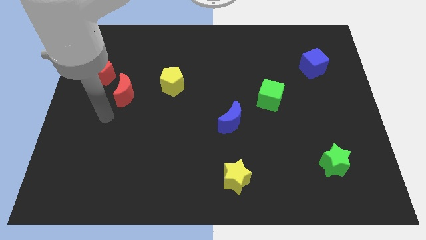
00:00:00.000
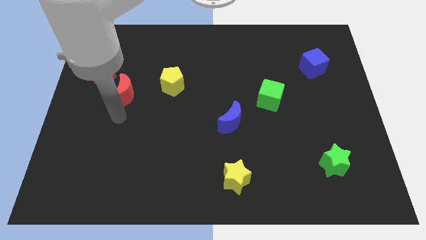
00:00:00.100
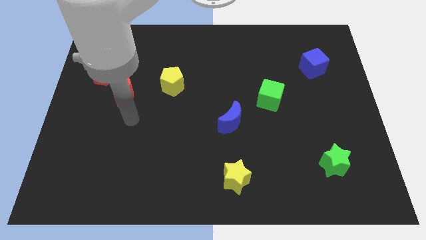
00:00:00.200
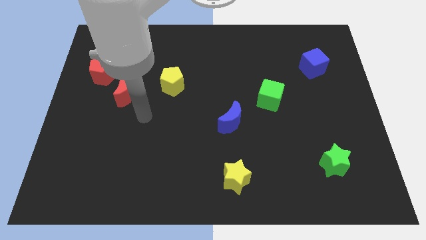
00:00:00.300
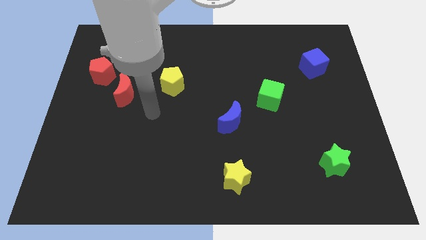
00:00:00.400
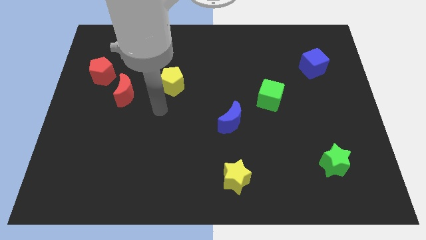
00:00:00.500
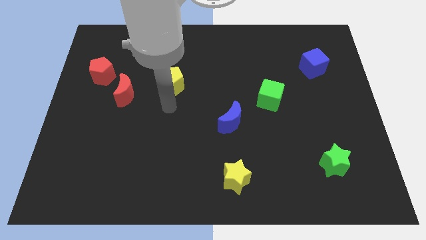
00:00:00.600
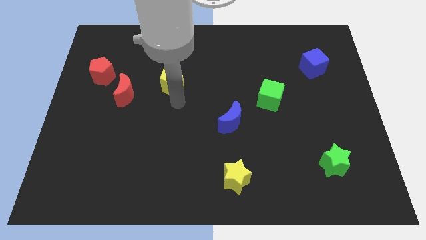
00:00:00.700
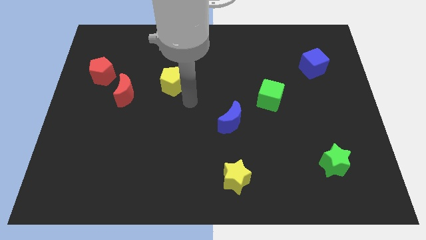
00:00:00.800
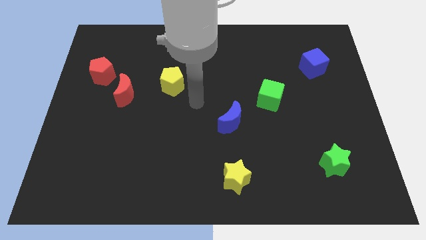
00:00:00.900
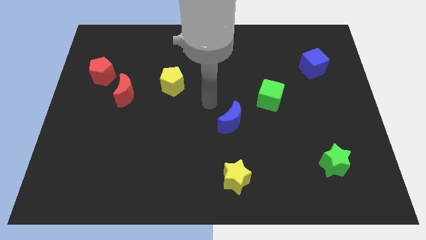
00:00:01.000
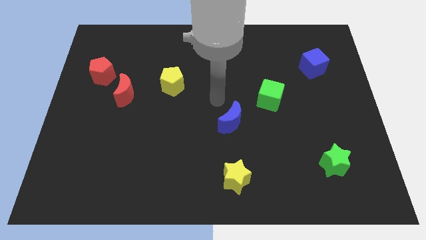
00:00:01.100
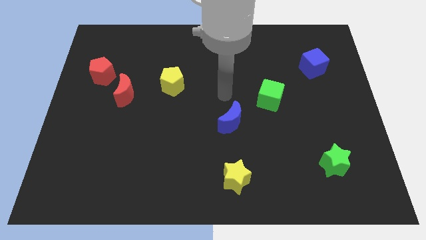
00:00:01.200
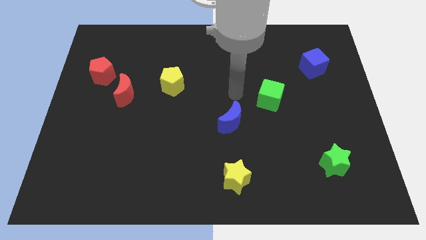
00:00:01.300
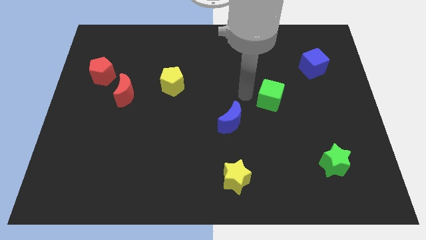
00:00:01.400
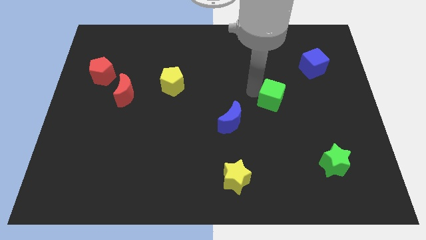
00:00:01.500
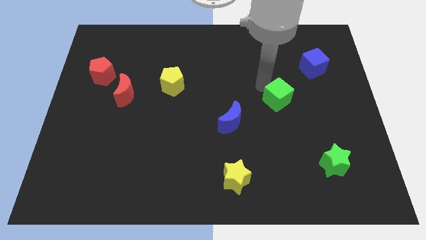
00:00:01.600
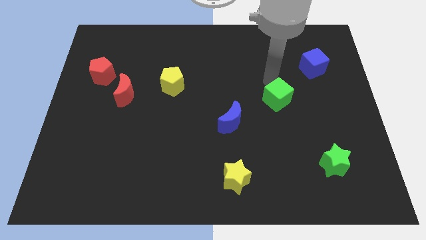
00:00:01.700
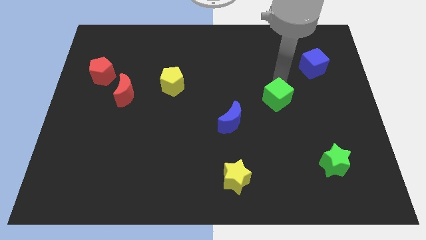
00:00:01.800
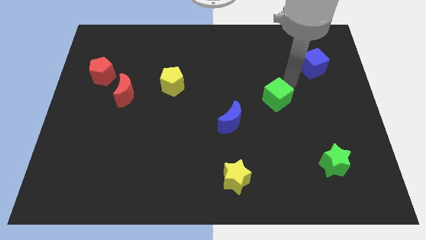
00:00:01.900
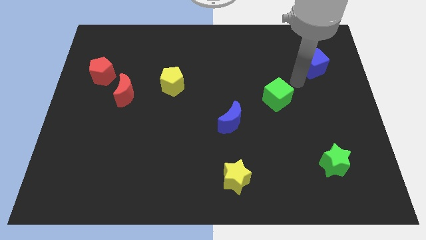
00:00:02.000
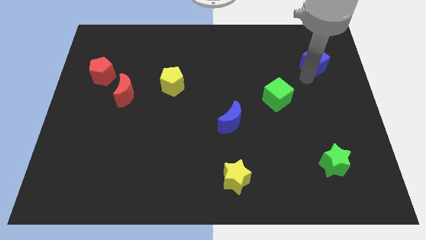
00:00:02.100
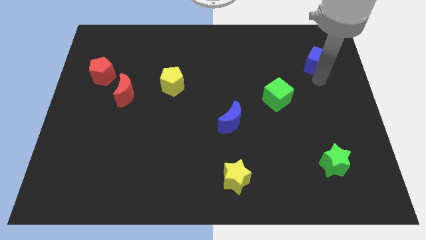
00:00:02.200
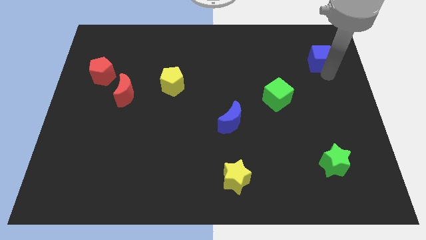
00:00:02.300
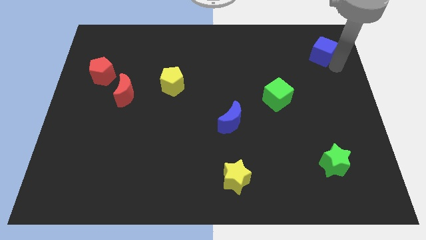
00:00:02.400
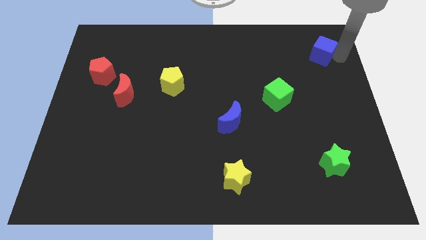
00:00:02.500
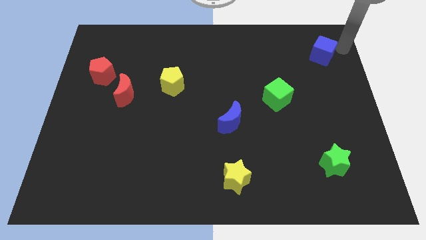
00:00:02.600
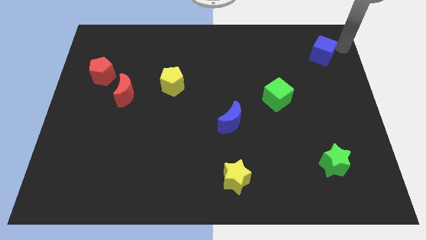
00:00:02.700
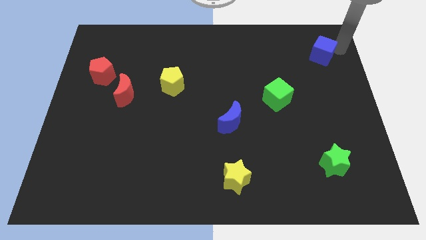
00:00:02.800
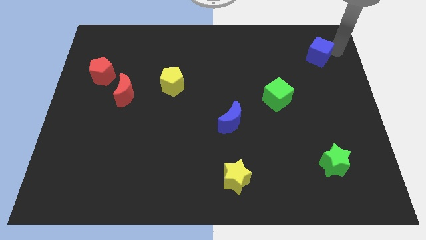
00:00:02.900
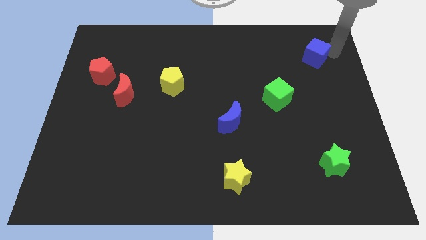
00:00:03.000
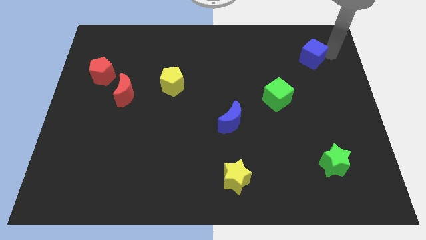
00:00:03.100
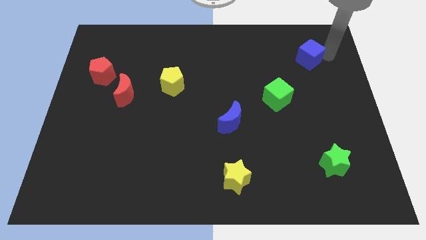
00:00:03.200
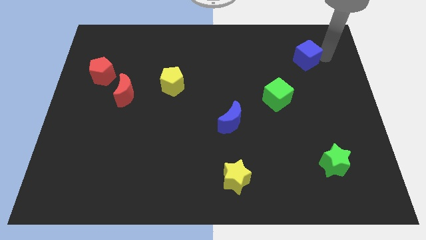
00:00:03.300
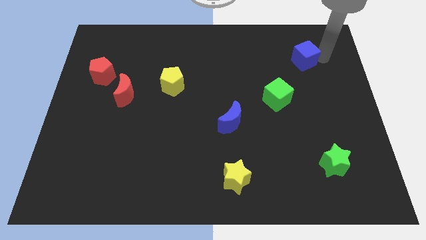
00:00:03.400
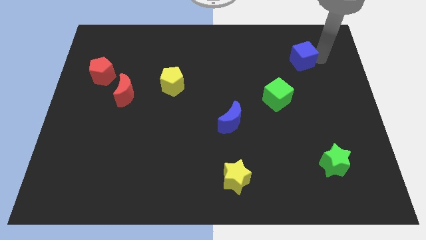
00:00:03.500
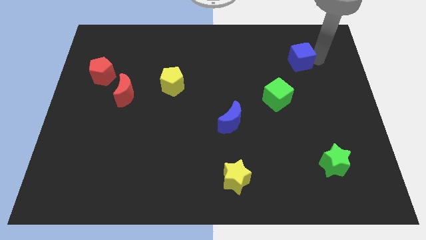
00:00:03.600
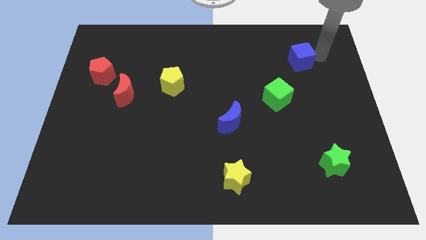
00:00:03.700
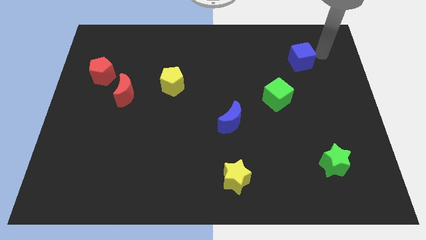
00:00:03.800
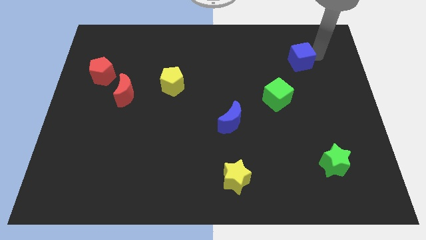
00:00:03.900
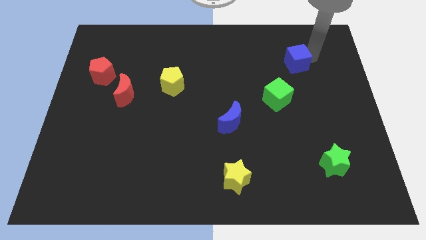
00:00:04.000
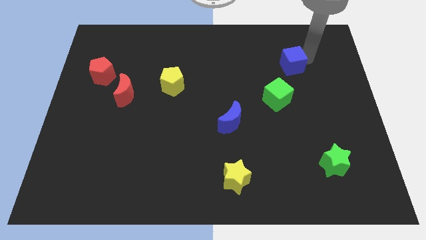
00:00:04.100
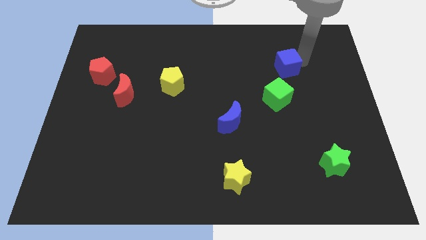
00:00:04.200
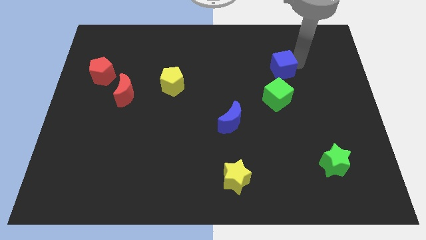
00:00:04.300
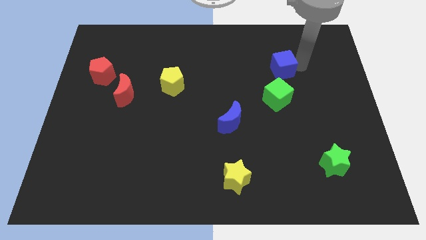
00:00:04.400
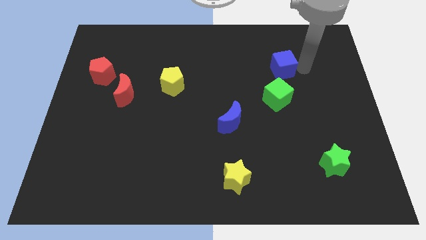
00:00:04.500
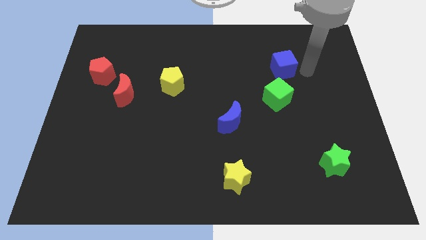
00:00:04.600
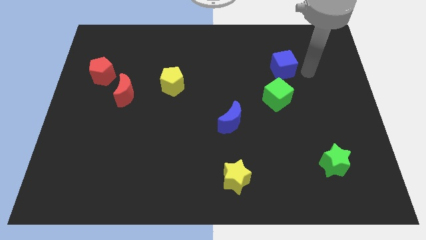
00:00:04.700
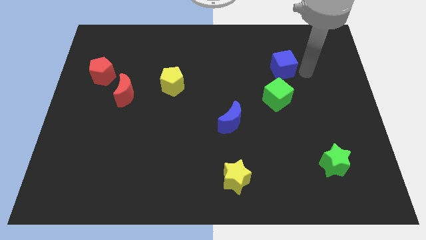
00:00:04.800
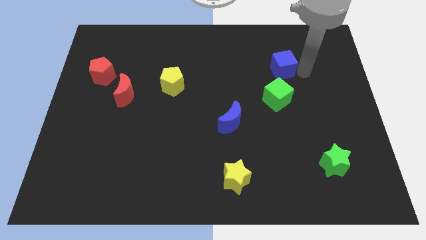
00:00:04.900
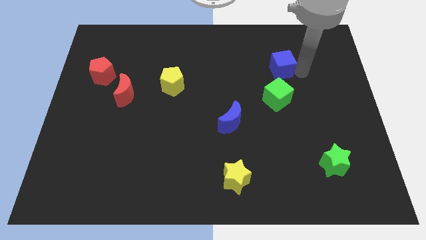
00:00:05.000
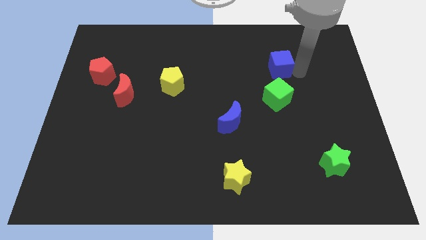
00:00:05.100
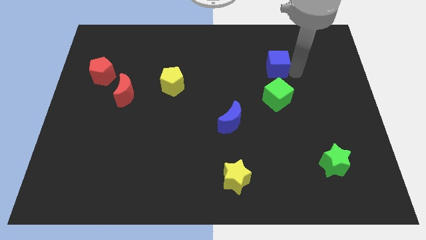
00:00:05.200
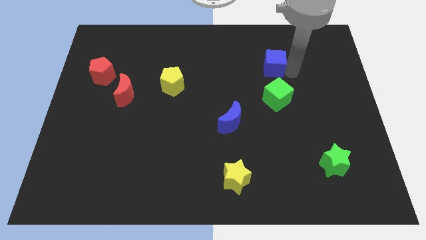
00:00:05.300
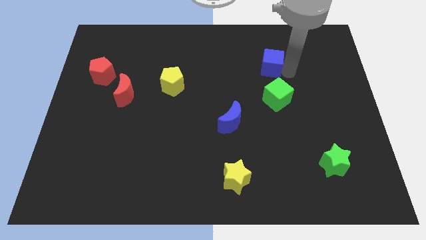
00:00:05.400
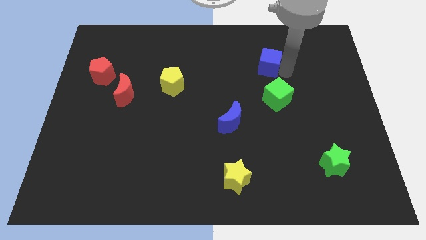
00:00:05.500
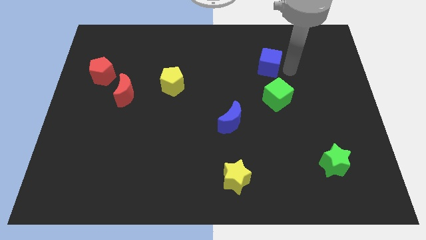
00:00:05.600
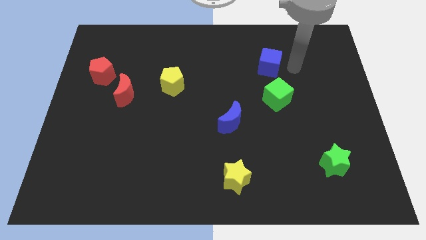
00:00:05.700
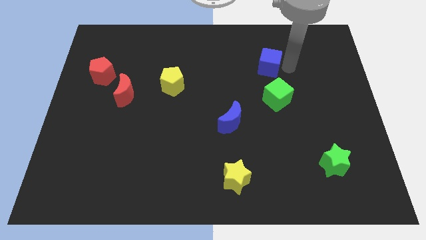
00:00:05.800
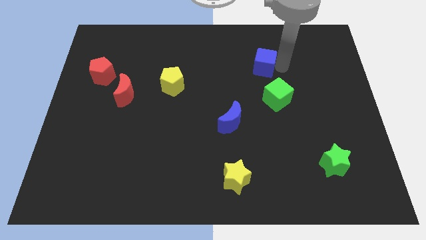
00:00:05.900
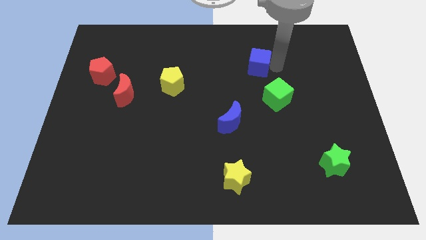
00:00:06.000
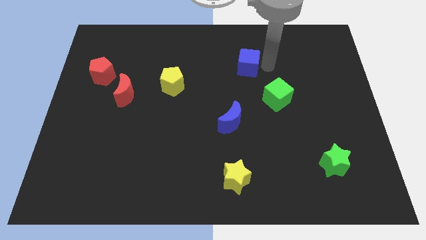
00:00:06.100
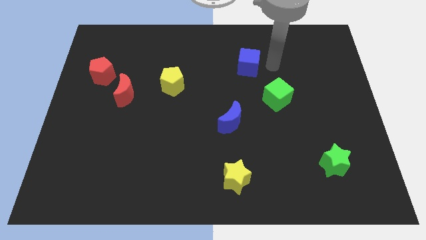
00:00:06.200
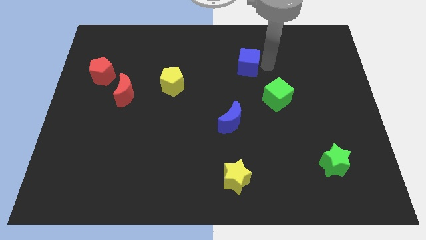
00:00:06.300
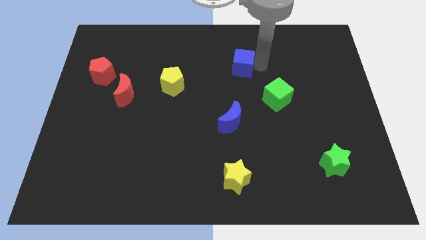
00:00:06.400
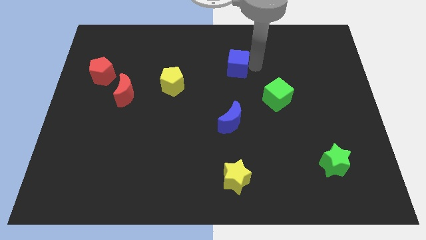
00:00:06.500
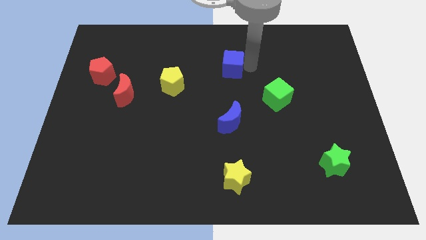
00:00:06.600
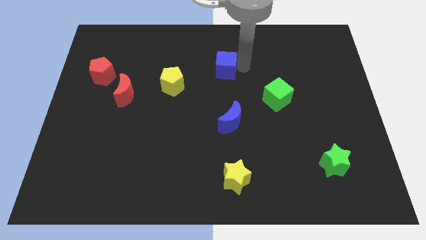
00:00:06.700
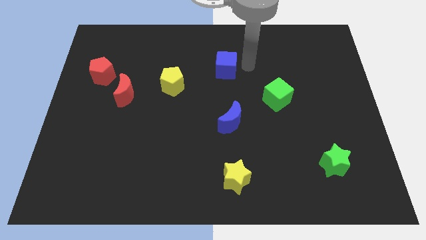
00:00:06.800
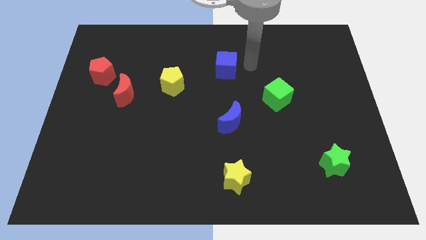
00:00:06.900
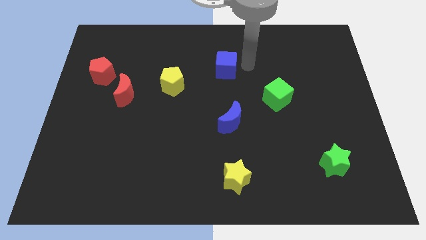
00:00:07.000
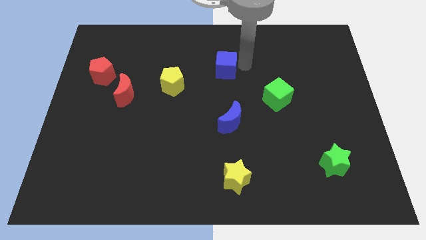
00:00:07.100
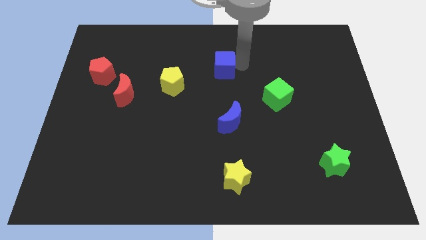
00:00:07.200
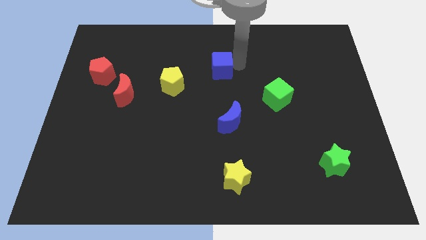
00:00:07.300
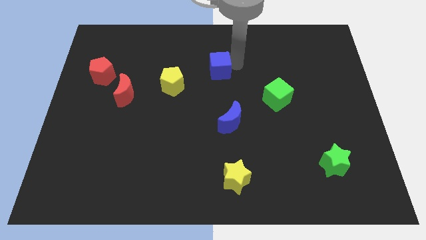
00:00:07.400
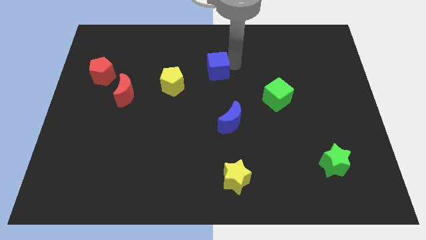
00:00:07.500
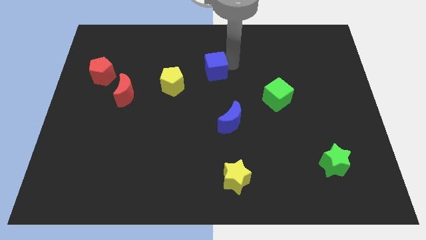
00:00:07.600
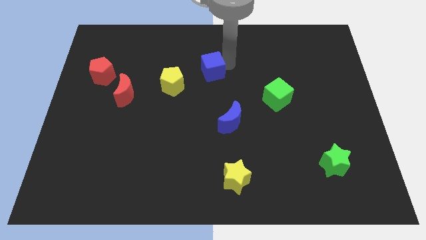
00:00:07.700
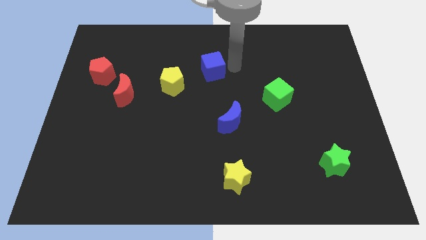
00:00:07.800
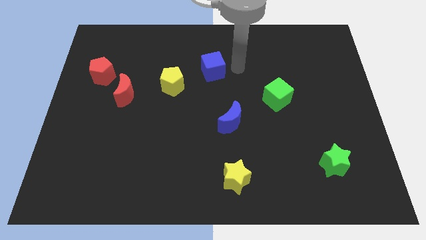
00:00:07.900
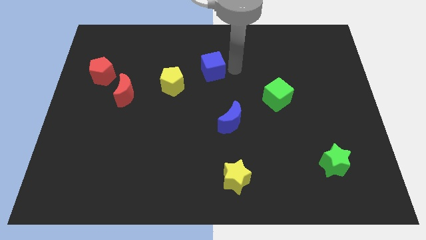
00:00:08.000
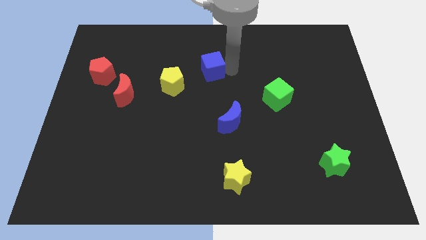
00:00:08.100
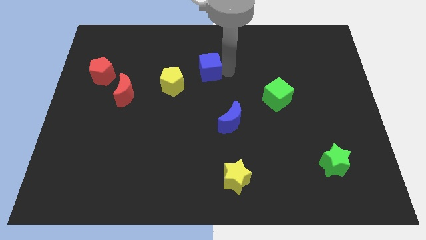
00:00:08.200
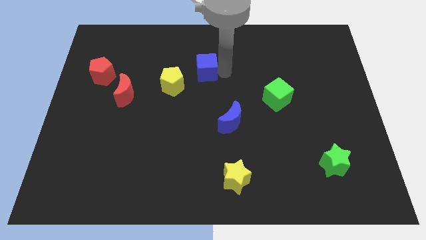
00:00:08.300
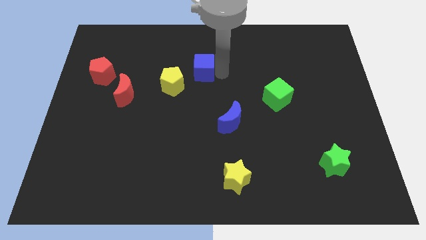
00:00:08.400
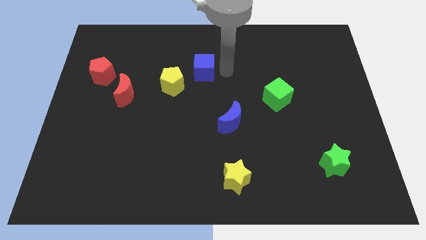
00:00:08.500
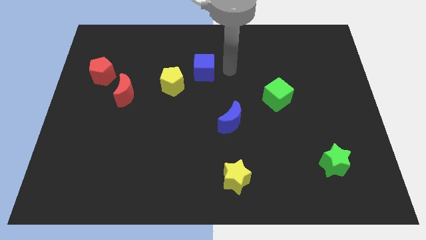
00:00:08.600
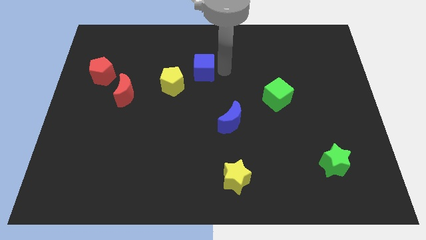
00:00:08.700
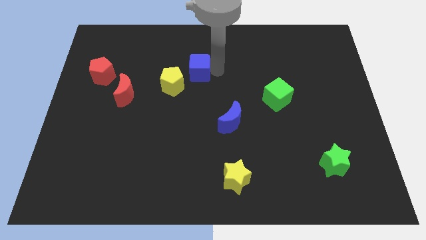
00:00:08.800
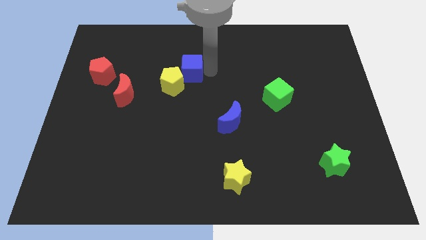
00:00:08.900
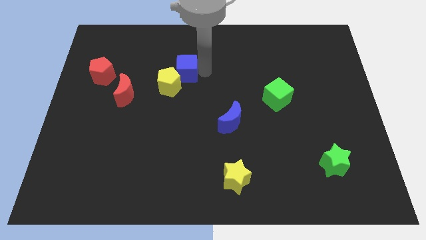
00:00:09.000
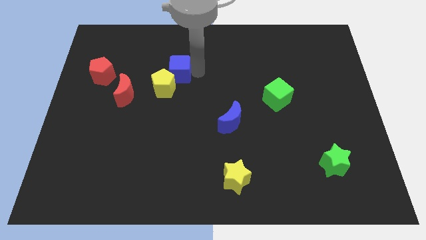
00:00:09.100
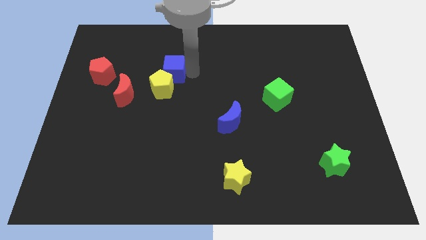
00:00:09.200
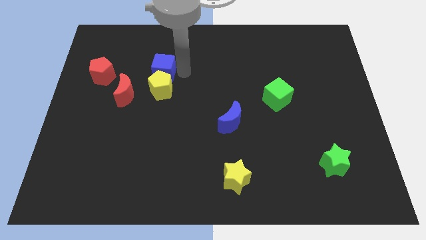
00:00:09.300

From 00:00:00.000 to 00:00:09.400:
put the blue cube to the right side of the red pentagon
